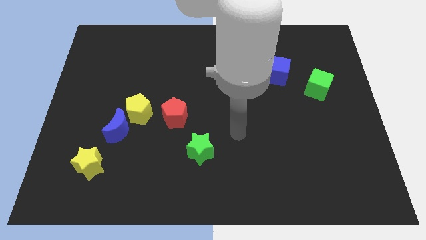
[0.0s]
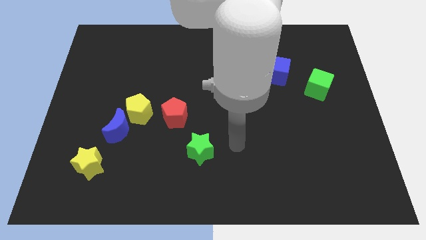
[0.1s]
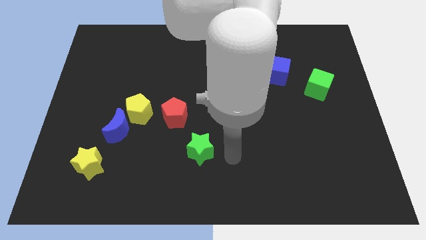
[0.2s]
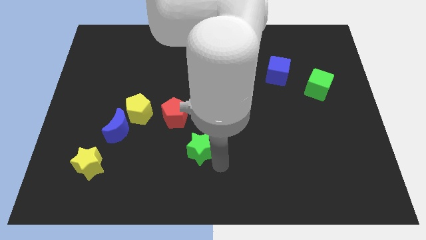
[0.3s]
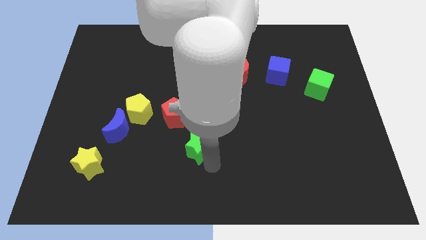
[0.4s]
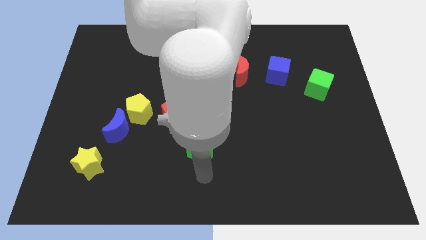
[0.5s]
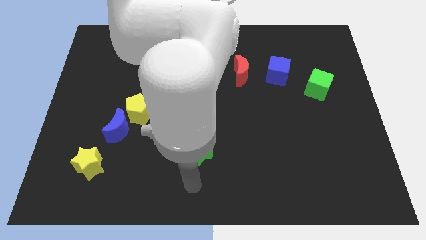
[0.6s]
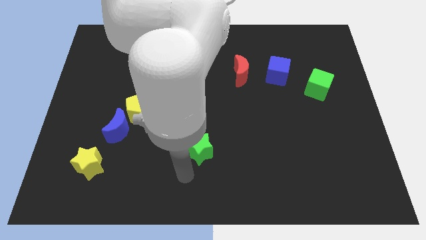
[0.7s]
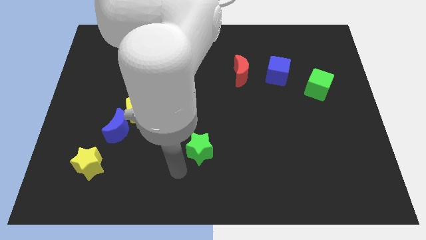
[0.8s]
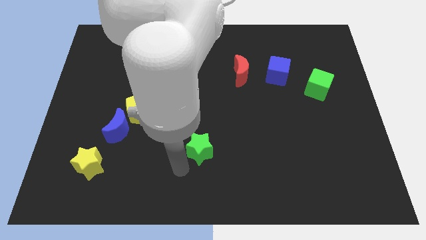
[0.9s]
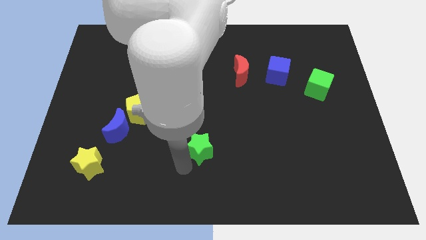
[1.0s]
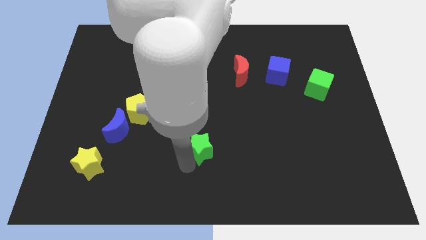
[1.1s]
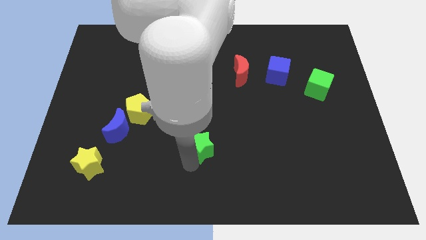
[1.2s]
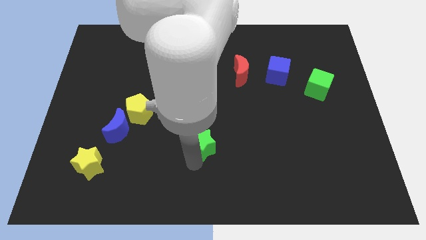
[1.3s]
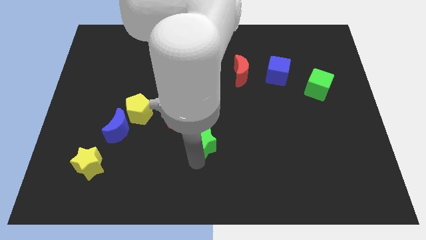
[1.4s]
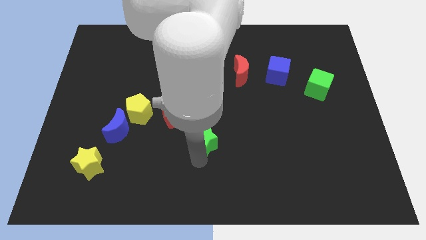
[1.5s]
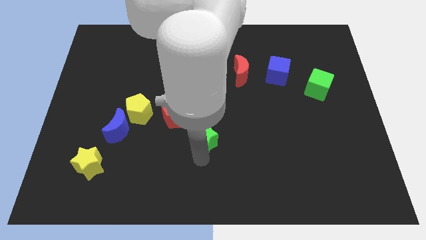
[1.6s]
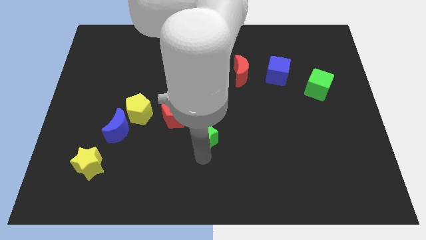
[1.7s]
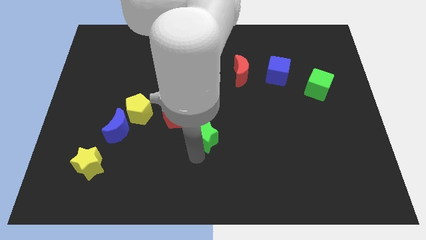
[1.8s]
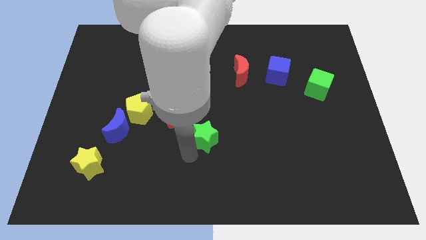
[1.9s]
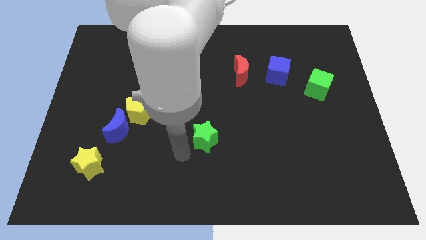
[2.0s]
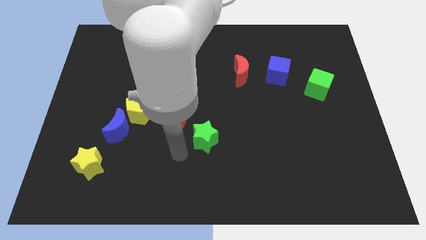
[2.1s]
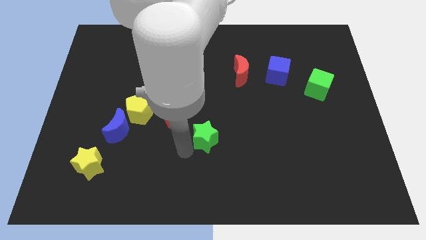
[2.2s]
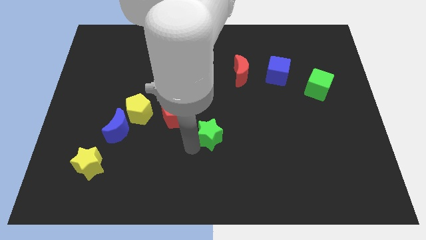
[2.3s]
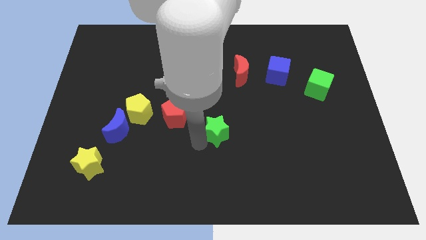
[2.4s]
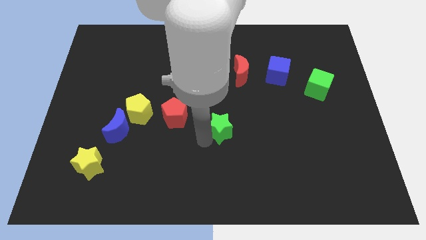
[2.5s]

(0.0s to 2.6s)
slide the green star diagonally upwards and right a little

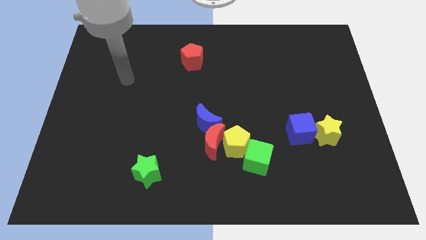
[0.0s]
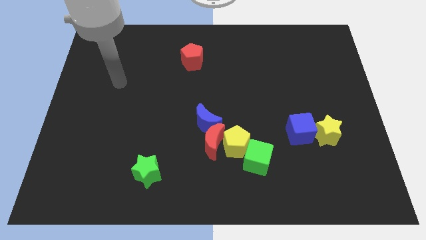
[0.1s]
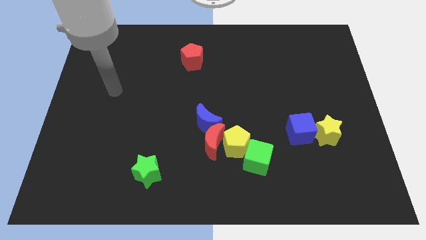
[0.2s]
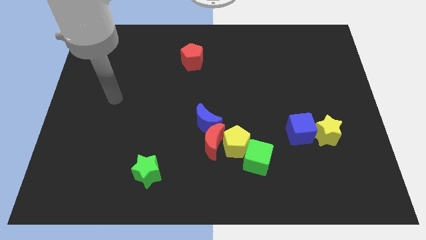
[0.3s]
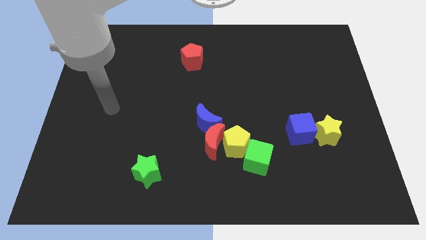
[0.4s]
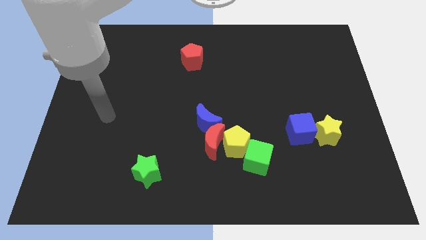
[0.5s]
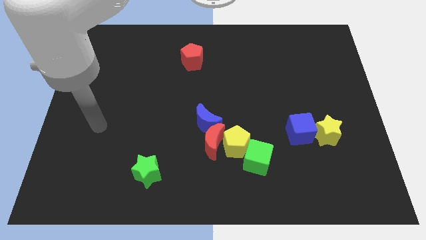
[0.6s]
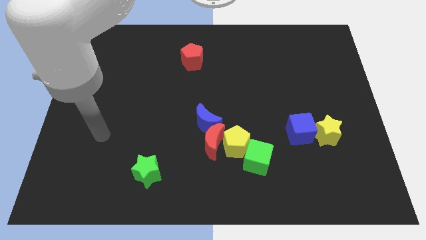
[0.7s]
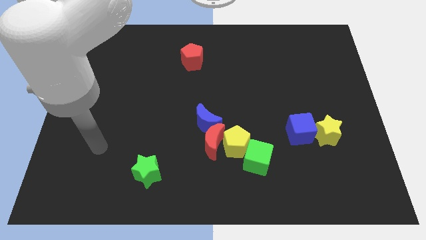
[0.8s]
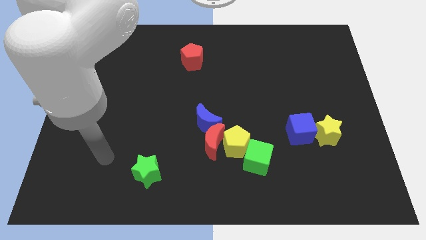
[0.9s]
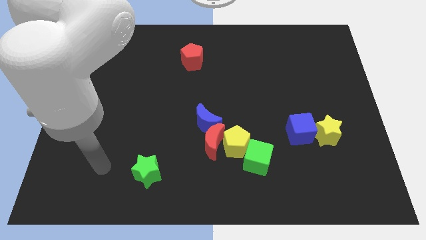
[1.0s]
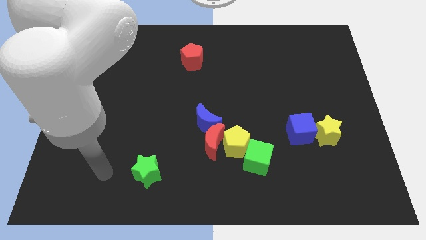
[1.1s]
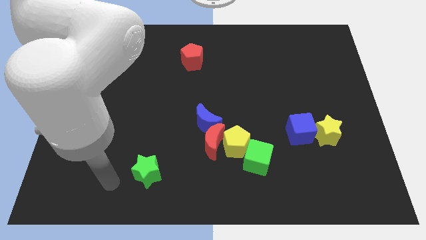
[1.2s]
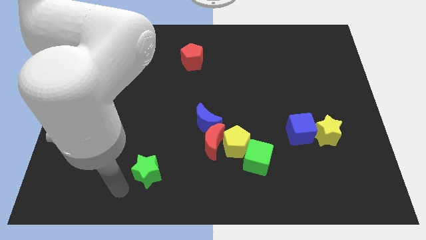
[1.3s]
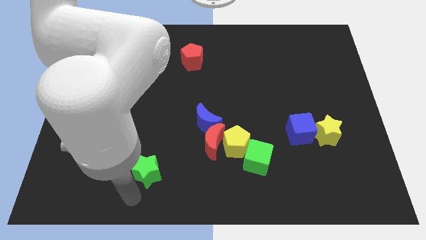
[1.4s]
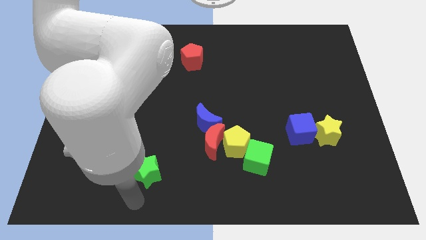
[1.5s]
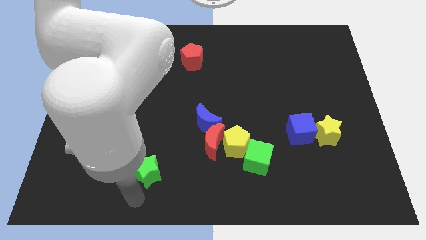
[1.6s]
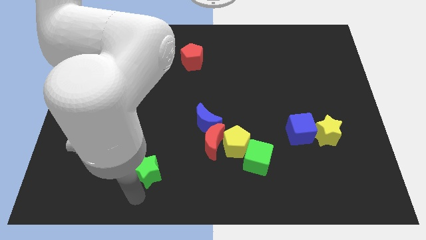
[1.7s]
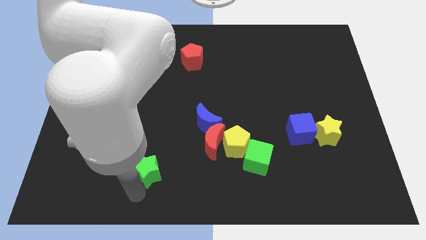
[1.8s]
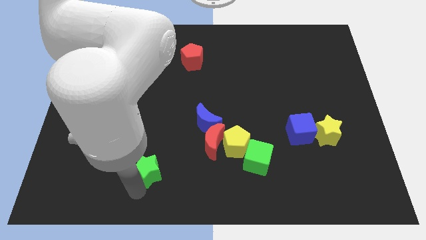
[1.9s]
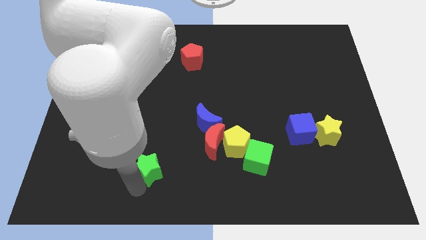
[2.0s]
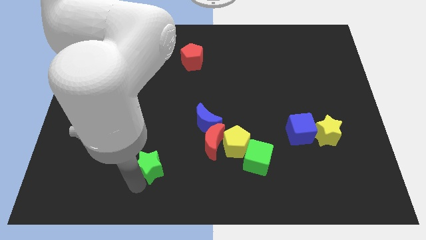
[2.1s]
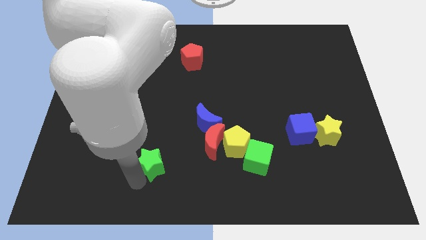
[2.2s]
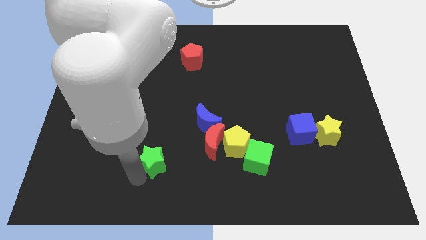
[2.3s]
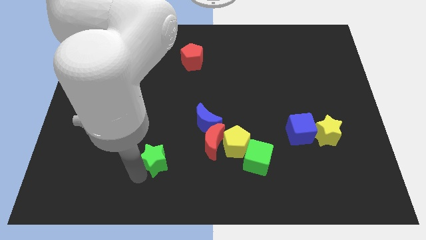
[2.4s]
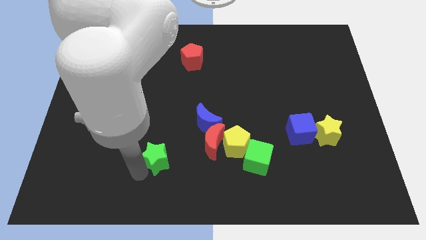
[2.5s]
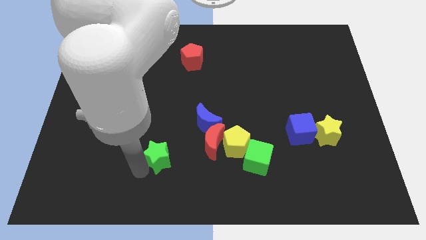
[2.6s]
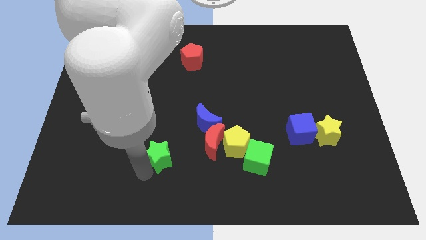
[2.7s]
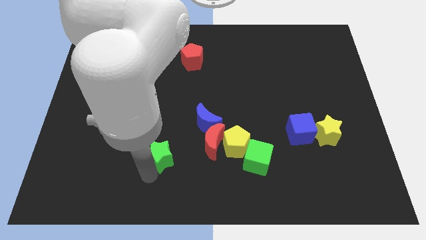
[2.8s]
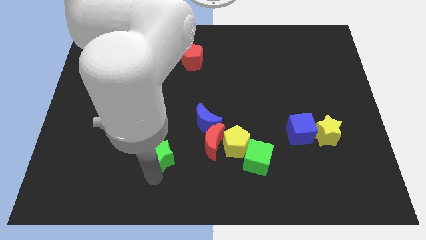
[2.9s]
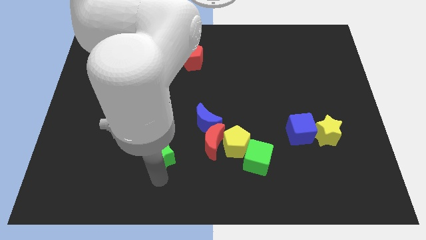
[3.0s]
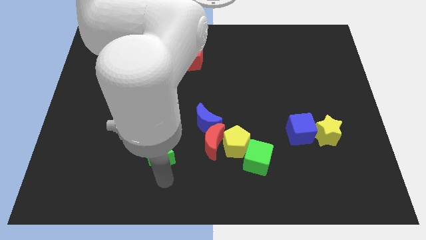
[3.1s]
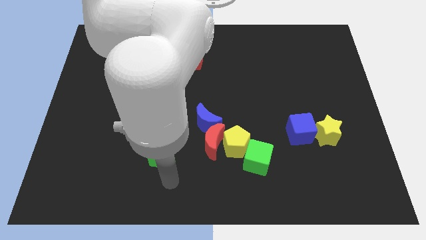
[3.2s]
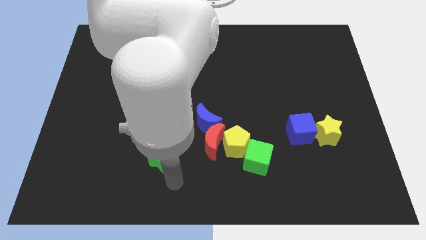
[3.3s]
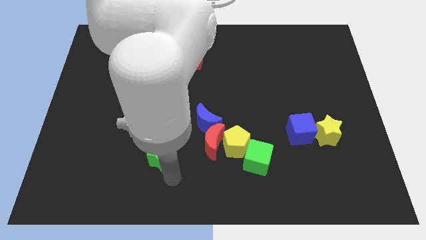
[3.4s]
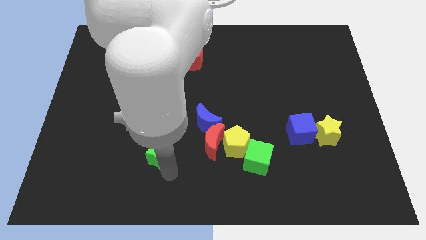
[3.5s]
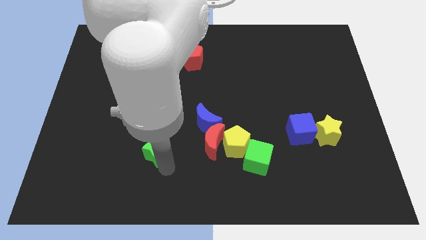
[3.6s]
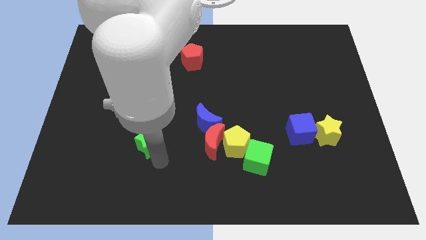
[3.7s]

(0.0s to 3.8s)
move the green star up a little

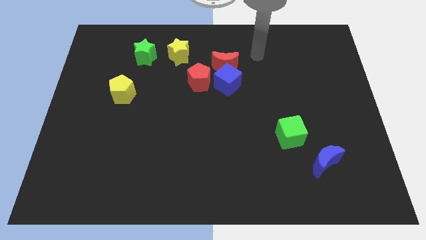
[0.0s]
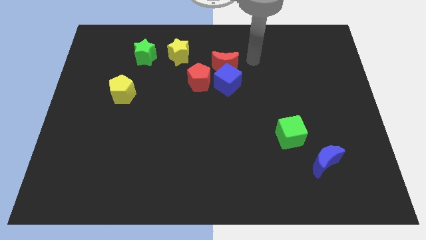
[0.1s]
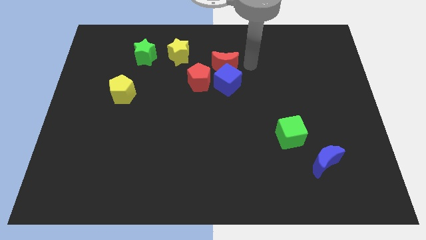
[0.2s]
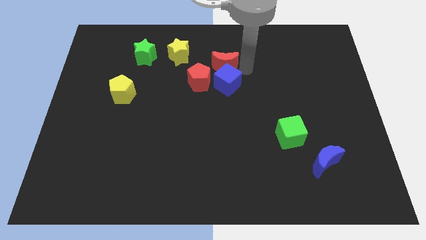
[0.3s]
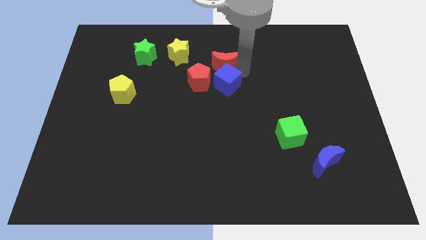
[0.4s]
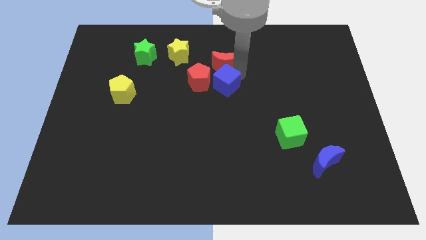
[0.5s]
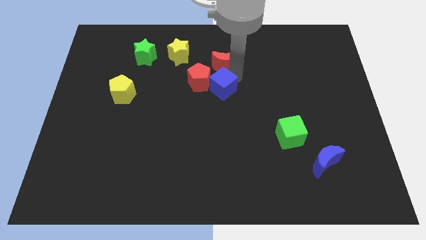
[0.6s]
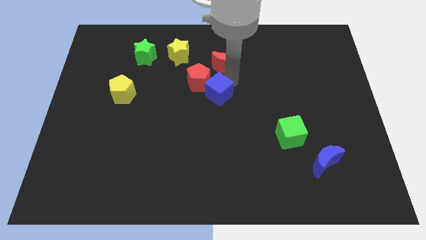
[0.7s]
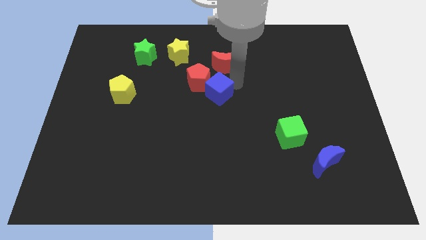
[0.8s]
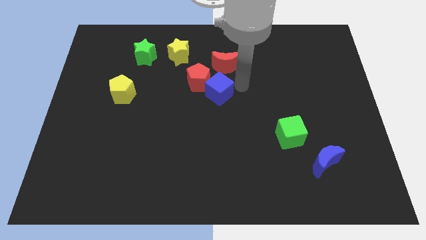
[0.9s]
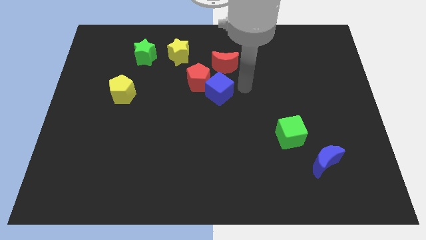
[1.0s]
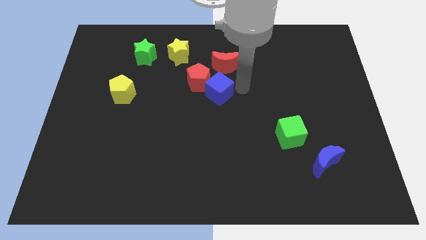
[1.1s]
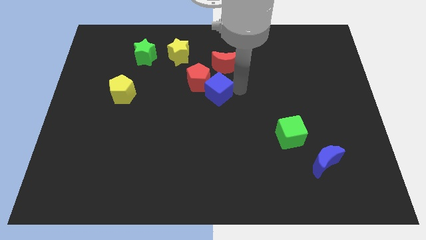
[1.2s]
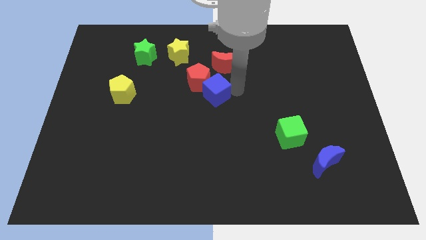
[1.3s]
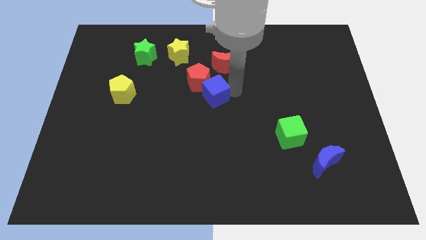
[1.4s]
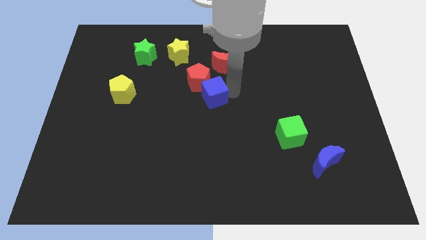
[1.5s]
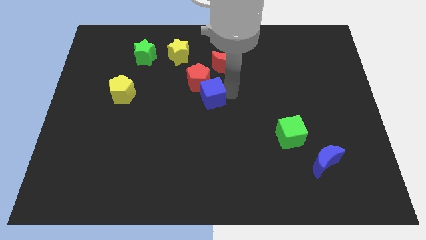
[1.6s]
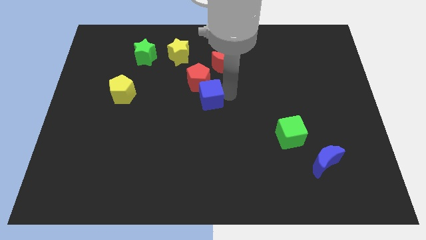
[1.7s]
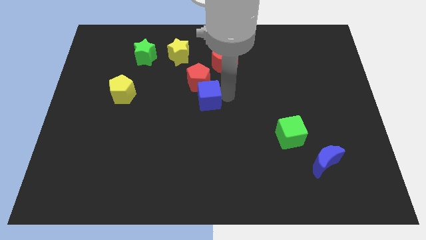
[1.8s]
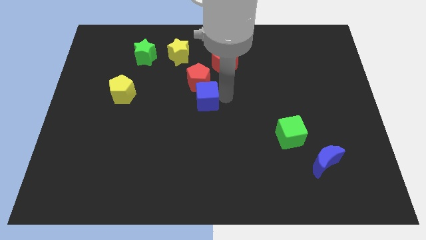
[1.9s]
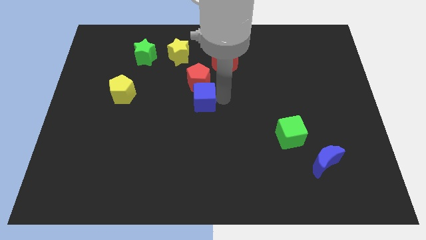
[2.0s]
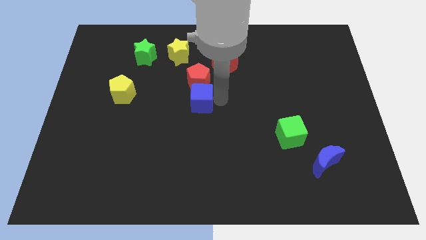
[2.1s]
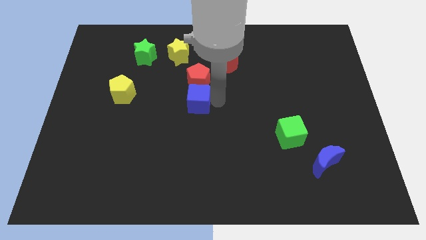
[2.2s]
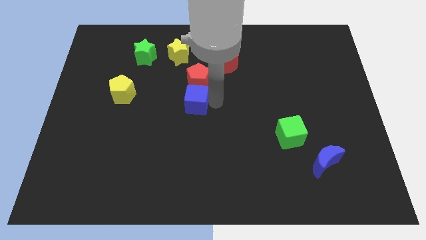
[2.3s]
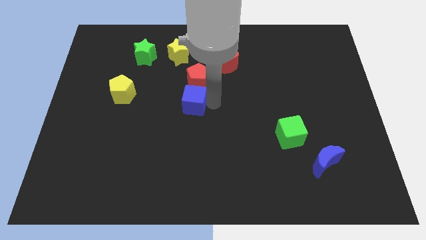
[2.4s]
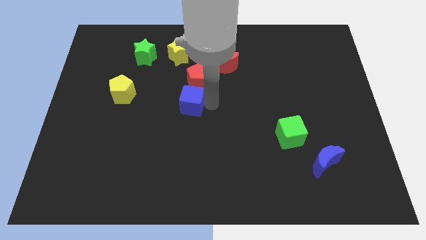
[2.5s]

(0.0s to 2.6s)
slide the blue cube left a little
